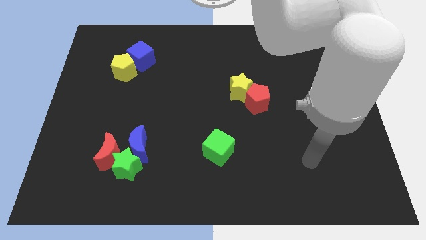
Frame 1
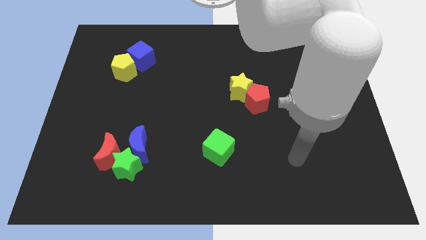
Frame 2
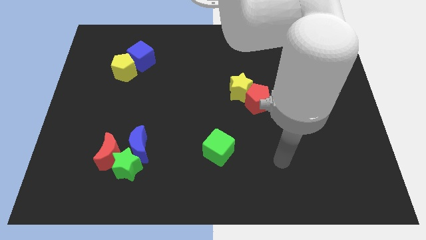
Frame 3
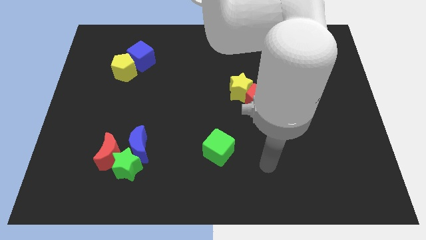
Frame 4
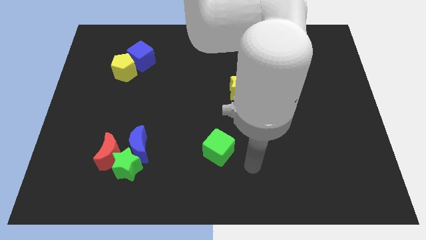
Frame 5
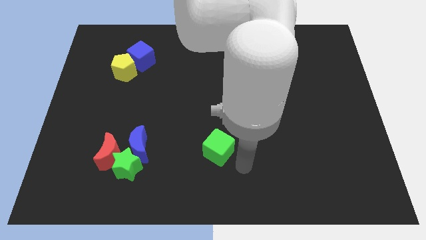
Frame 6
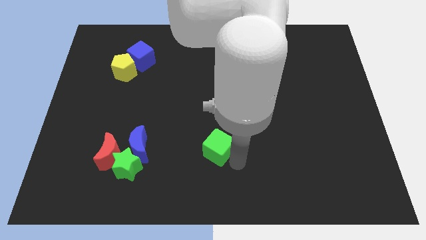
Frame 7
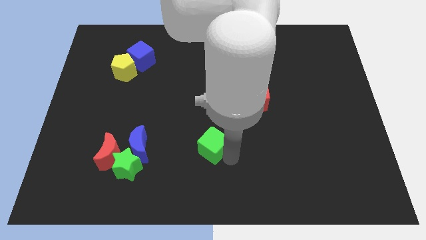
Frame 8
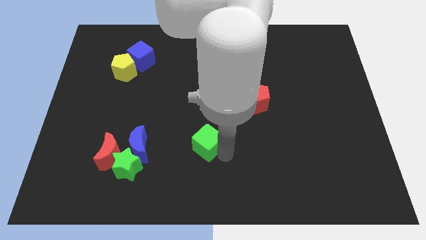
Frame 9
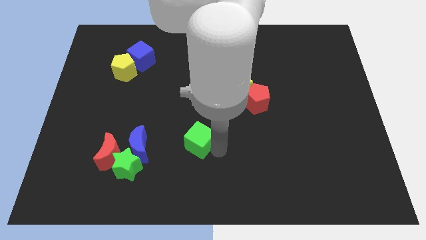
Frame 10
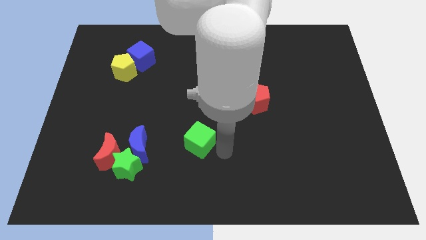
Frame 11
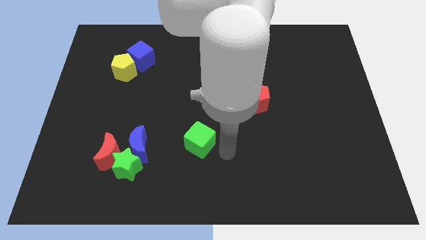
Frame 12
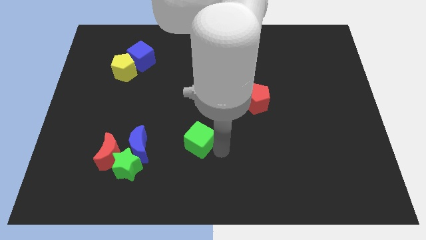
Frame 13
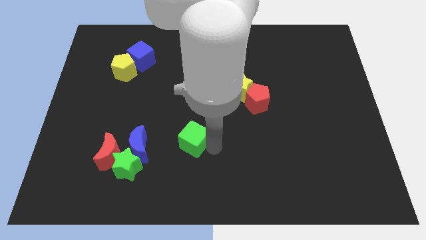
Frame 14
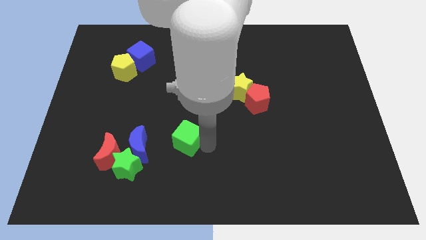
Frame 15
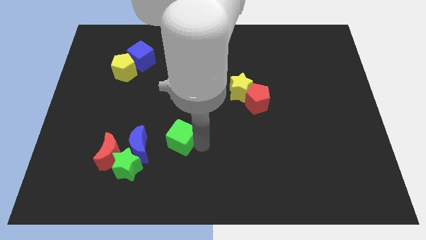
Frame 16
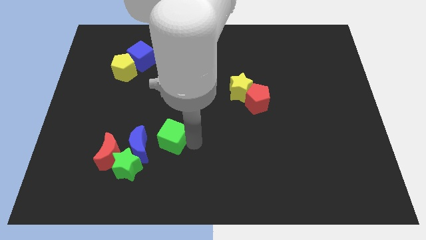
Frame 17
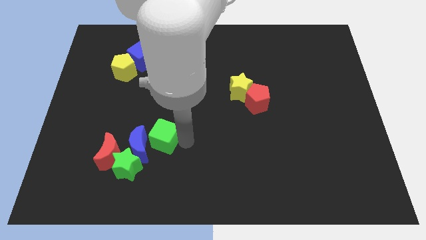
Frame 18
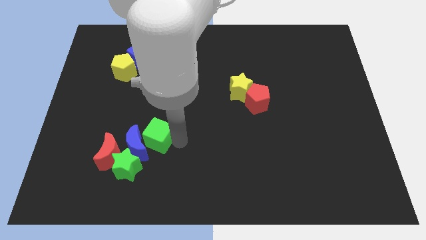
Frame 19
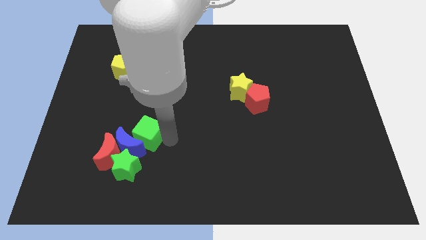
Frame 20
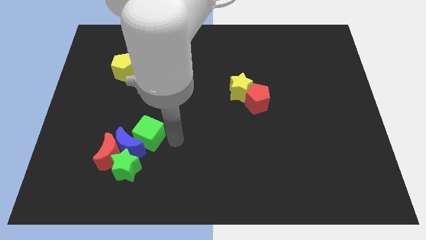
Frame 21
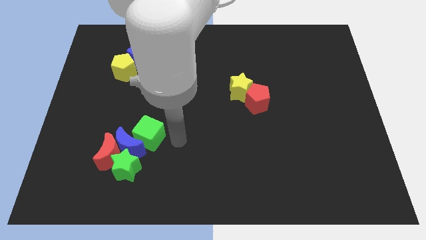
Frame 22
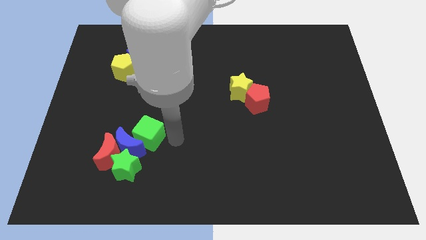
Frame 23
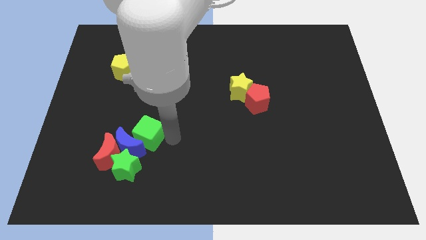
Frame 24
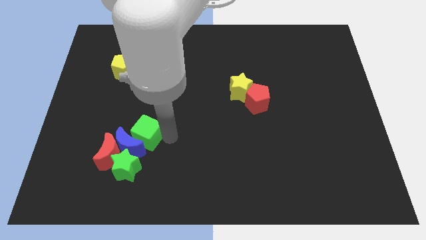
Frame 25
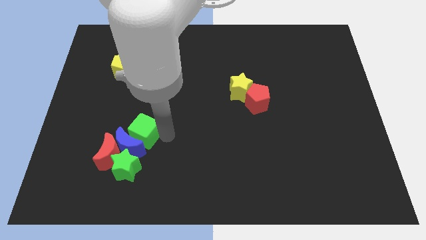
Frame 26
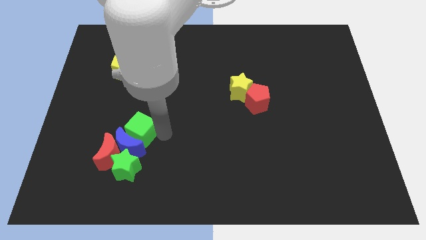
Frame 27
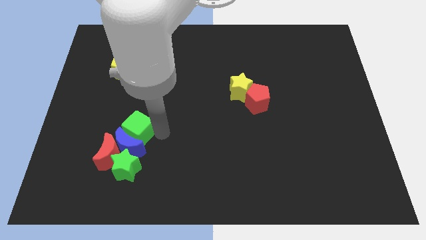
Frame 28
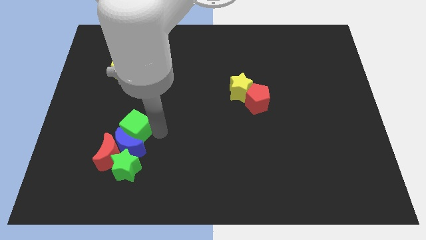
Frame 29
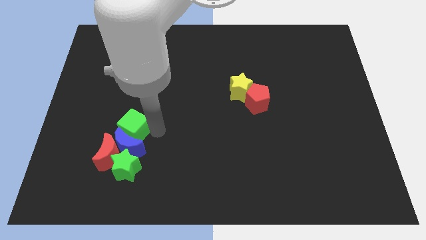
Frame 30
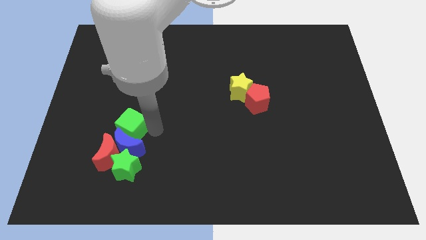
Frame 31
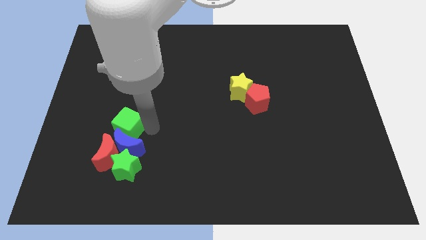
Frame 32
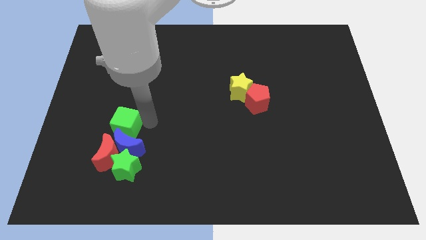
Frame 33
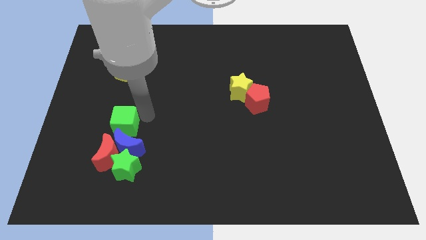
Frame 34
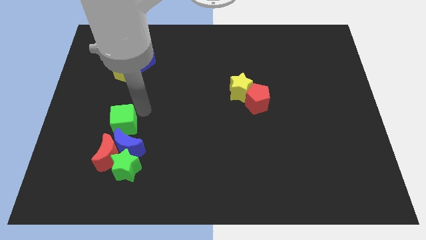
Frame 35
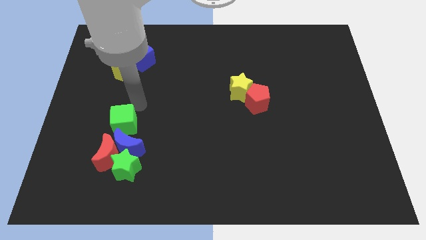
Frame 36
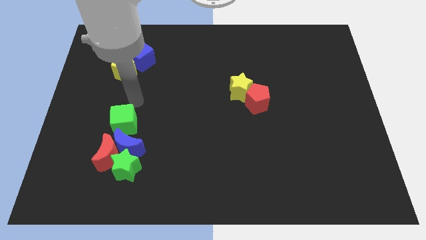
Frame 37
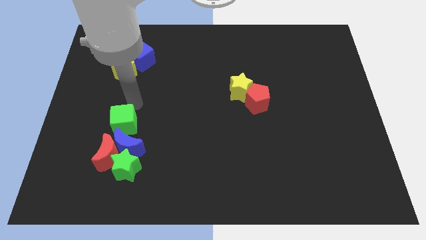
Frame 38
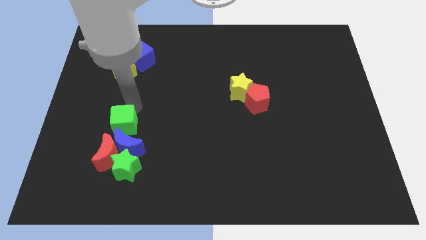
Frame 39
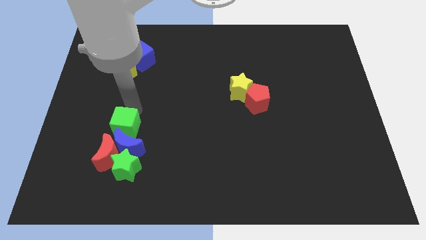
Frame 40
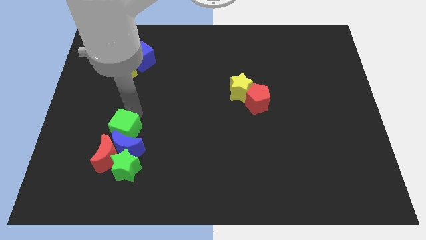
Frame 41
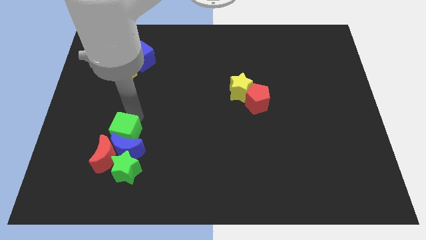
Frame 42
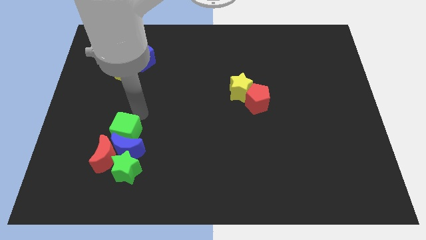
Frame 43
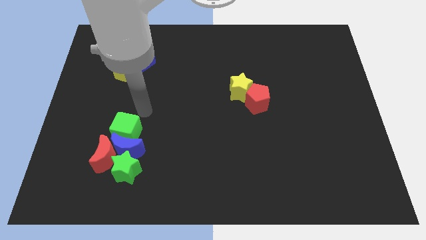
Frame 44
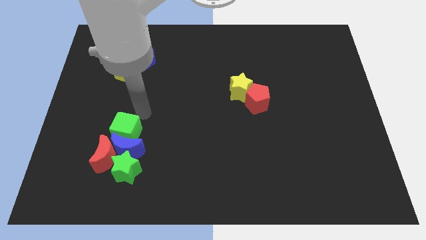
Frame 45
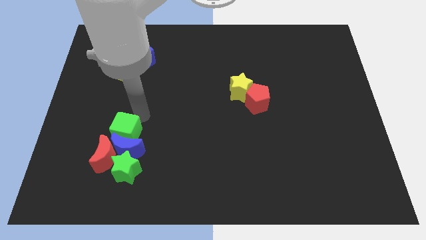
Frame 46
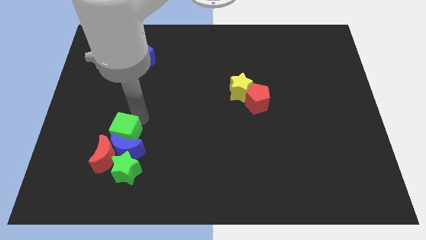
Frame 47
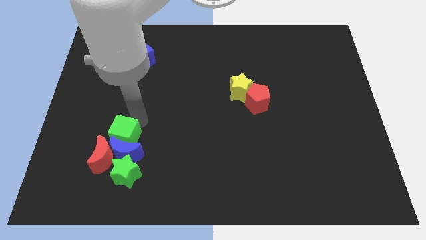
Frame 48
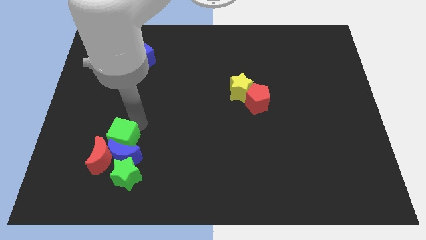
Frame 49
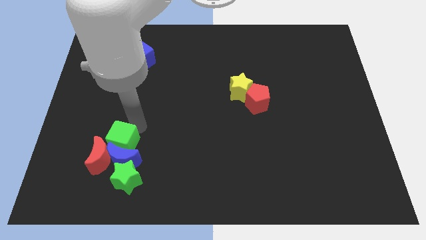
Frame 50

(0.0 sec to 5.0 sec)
put the green cube to the red moon

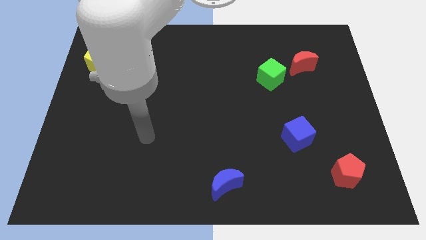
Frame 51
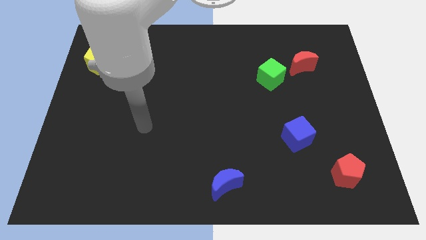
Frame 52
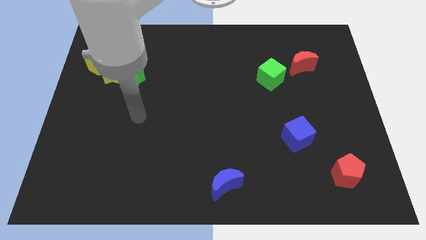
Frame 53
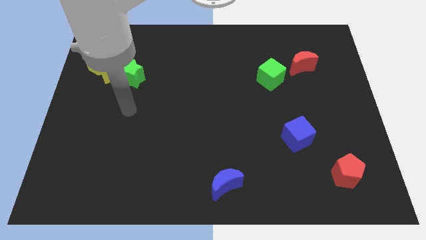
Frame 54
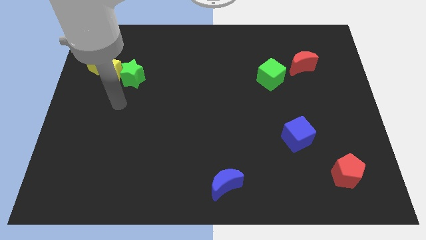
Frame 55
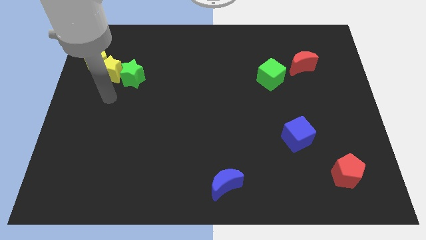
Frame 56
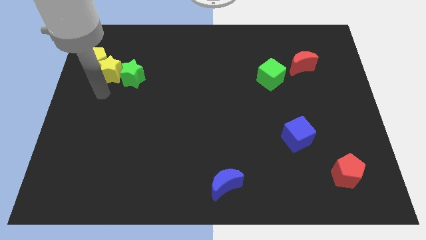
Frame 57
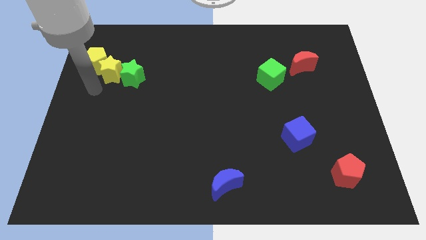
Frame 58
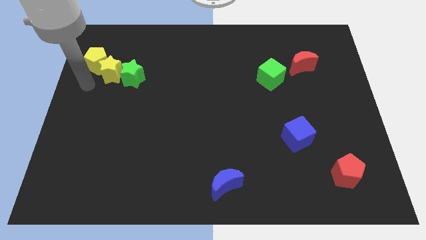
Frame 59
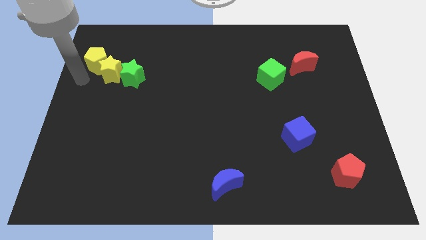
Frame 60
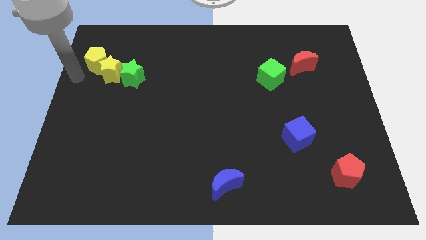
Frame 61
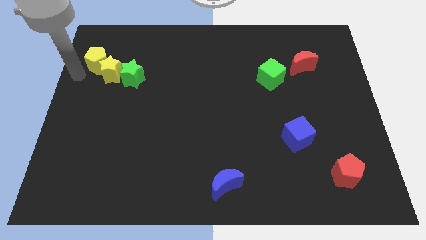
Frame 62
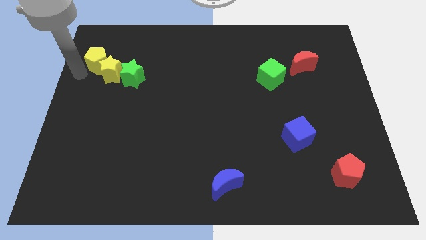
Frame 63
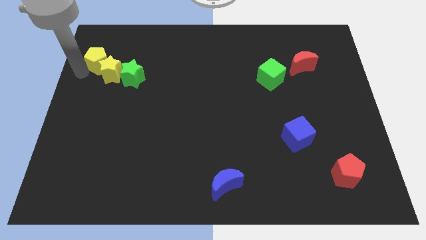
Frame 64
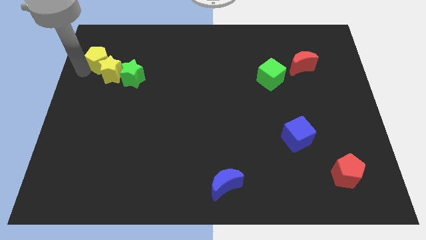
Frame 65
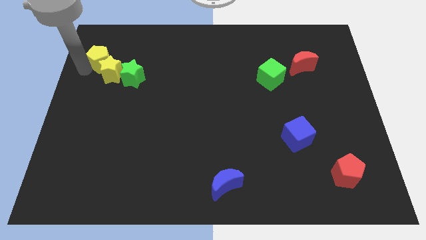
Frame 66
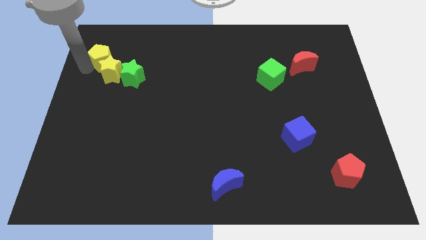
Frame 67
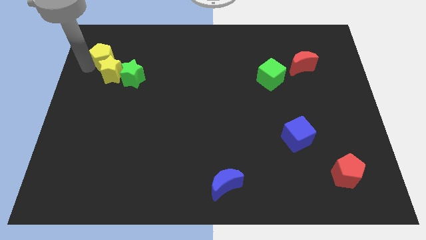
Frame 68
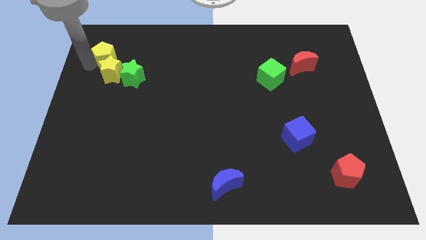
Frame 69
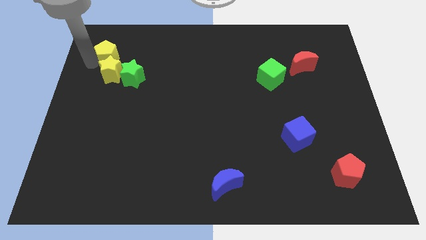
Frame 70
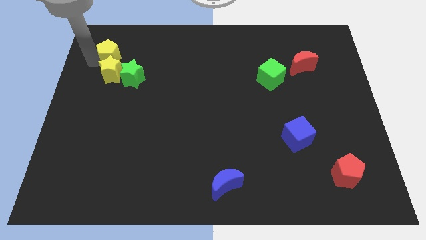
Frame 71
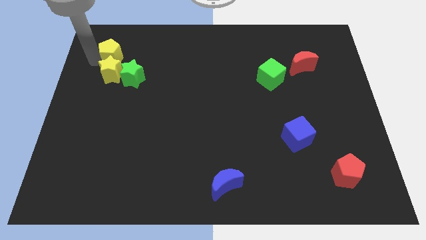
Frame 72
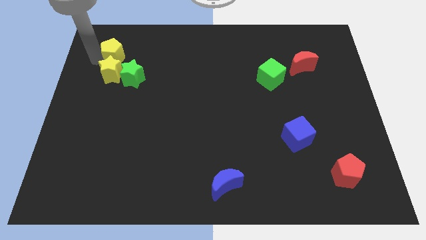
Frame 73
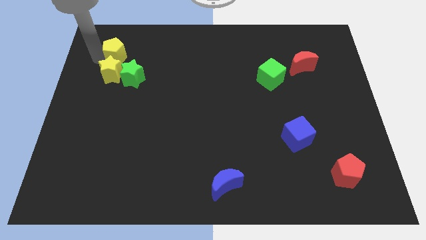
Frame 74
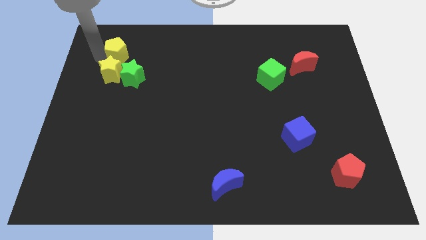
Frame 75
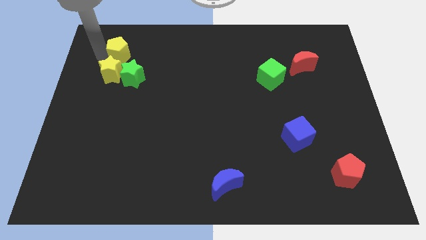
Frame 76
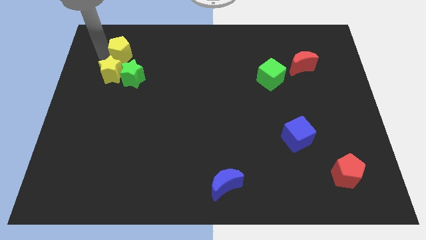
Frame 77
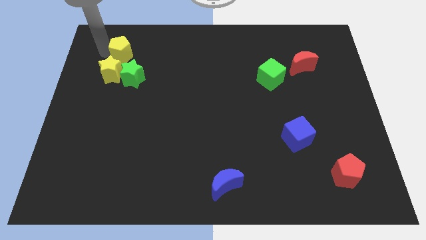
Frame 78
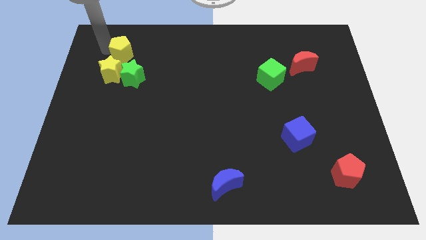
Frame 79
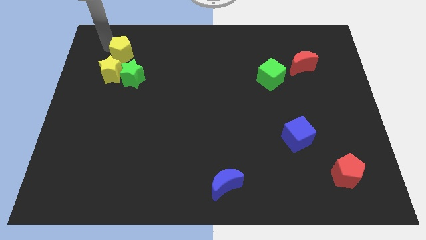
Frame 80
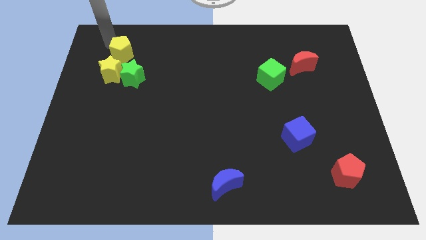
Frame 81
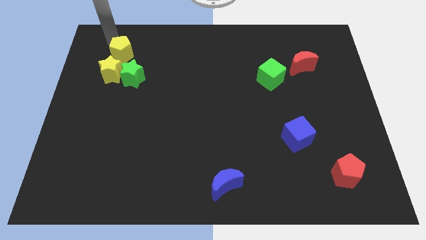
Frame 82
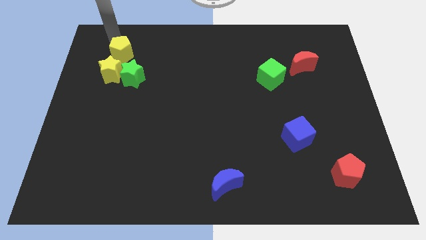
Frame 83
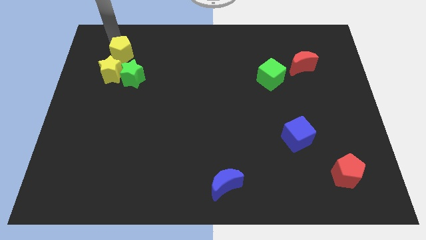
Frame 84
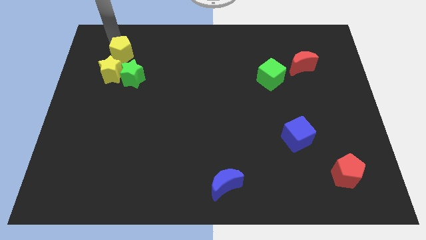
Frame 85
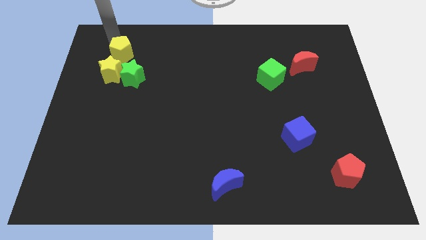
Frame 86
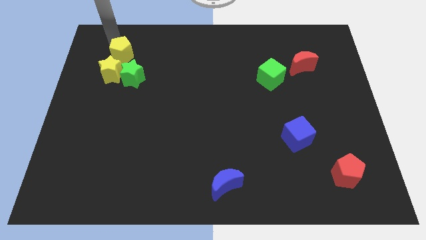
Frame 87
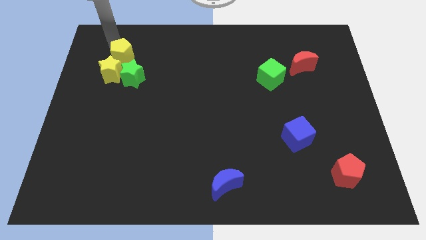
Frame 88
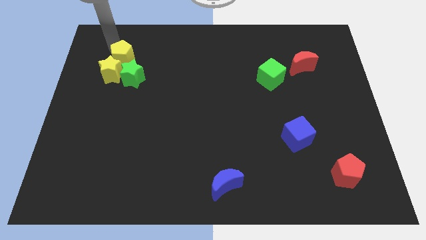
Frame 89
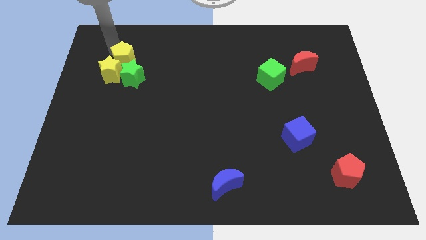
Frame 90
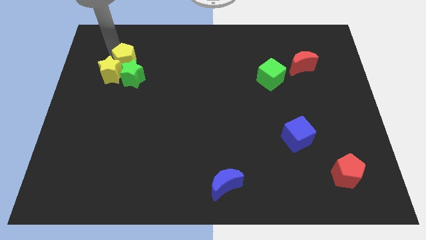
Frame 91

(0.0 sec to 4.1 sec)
slide the yellow pentagon to the green star
